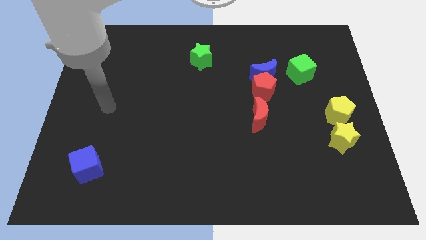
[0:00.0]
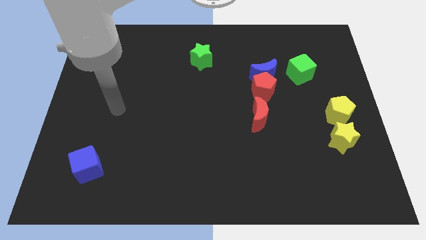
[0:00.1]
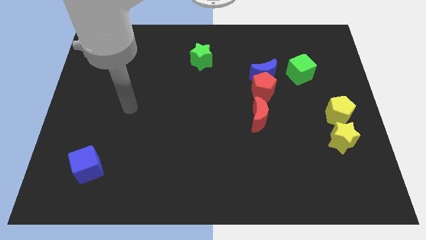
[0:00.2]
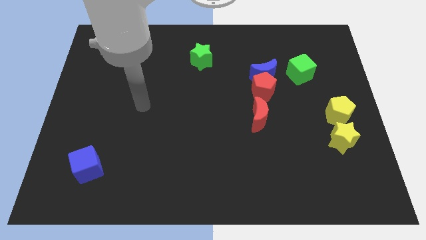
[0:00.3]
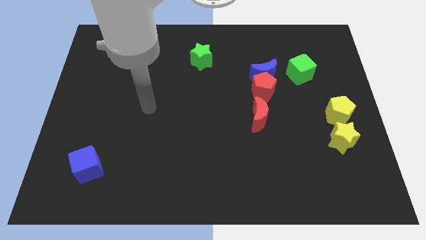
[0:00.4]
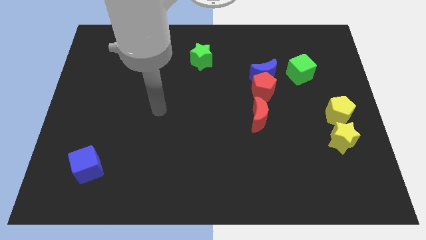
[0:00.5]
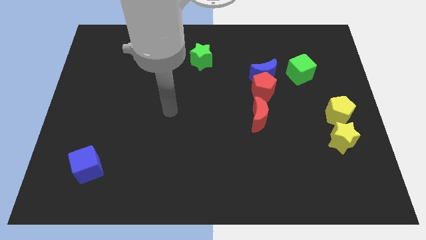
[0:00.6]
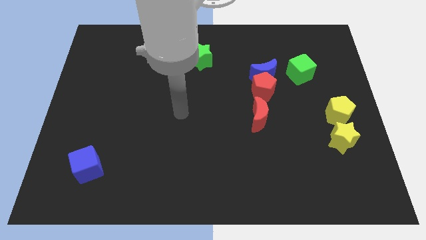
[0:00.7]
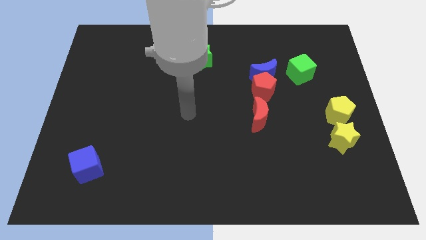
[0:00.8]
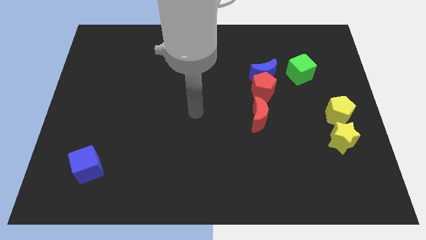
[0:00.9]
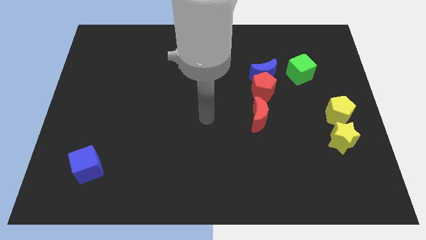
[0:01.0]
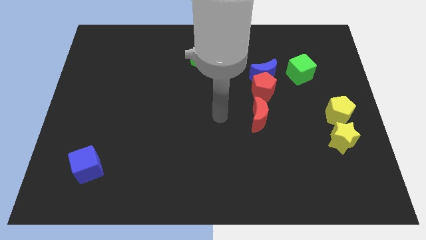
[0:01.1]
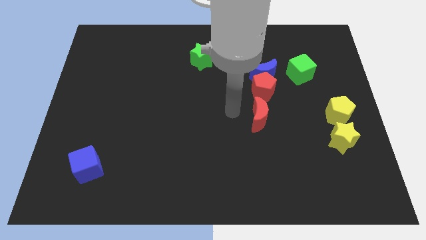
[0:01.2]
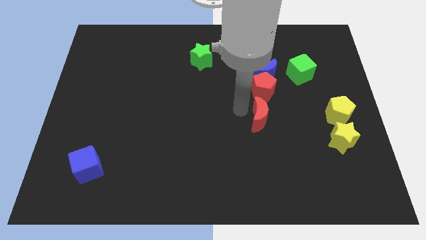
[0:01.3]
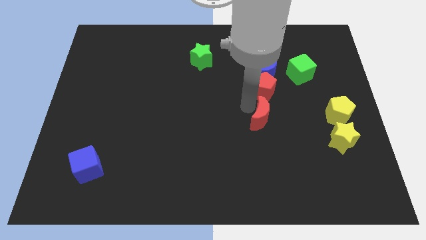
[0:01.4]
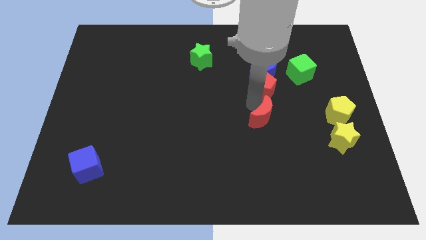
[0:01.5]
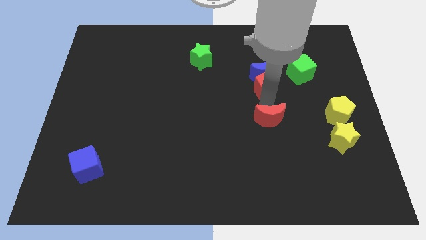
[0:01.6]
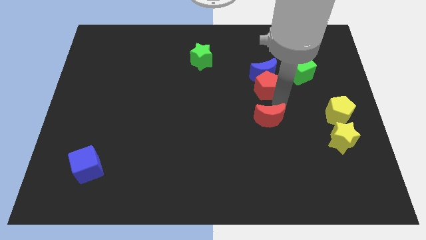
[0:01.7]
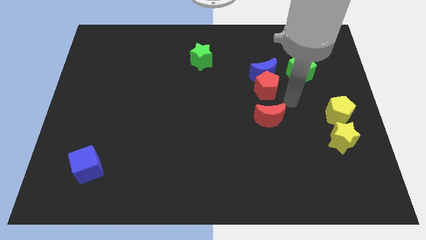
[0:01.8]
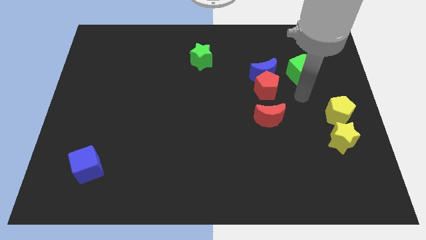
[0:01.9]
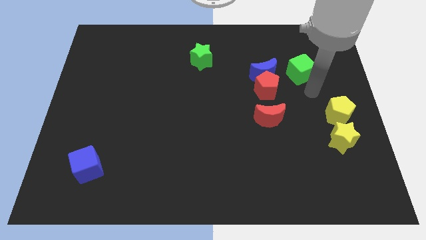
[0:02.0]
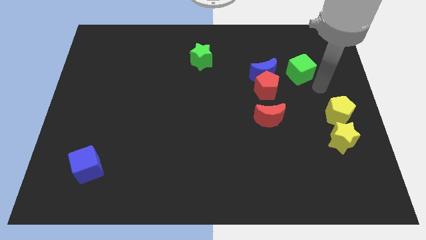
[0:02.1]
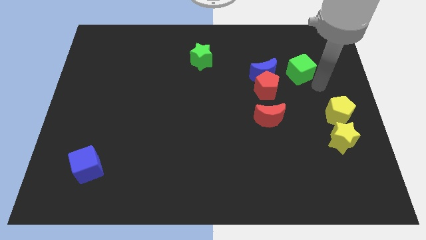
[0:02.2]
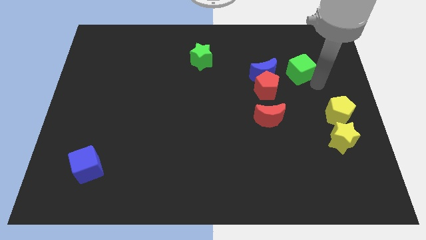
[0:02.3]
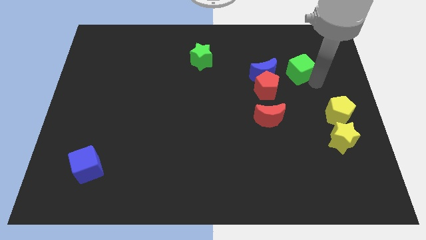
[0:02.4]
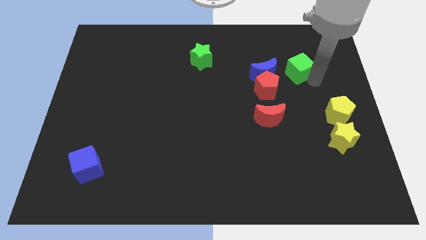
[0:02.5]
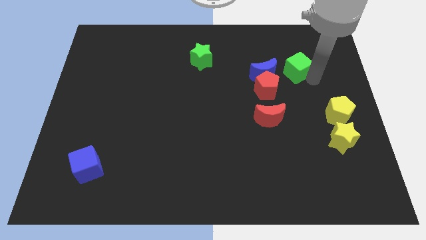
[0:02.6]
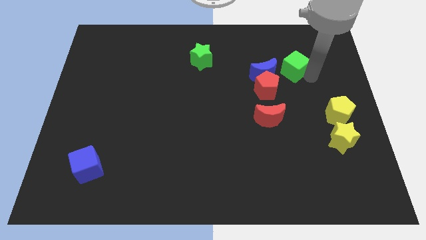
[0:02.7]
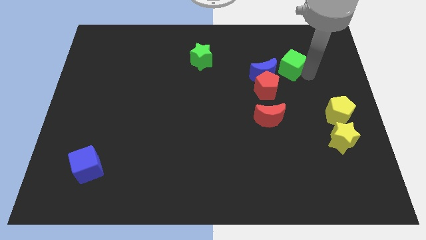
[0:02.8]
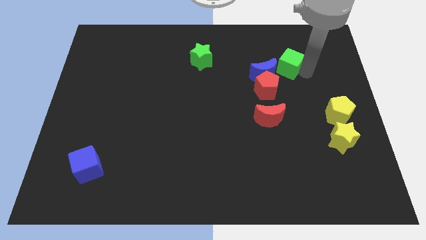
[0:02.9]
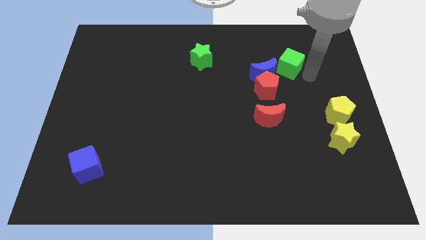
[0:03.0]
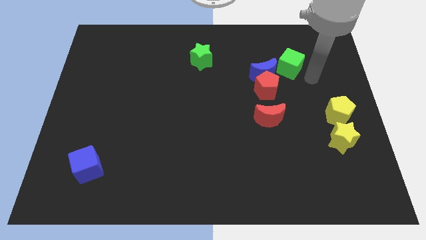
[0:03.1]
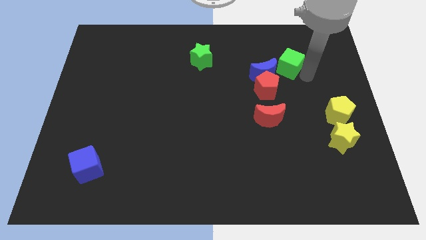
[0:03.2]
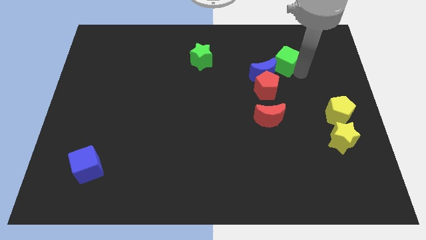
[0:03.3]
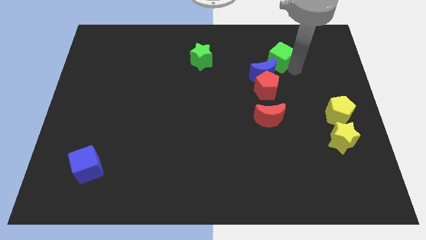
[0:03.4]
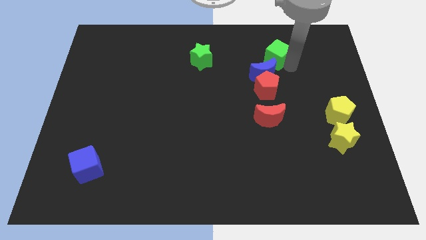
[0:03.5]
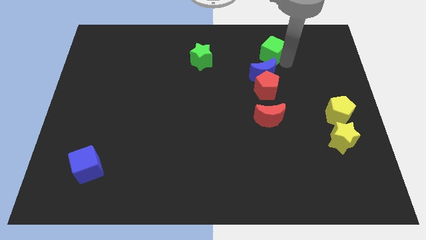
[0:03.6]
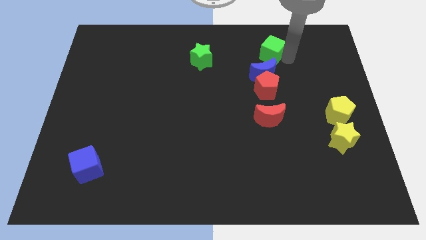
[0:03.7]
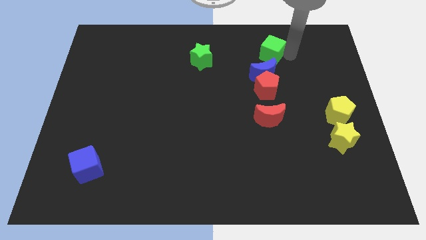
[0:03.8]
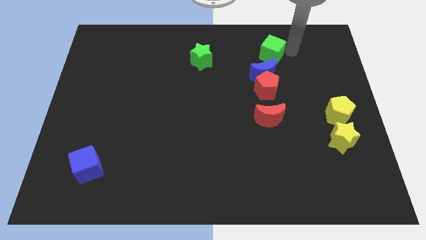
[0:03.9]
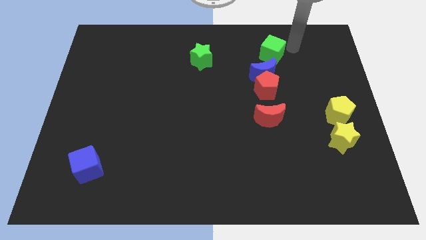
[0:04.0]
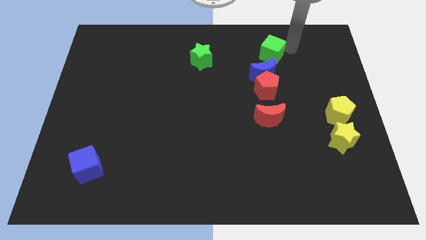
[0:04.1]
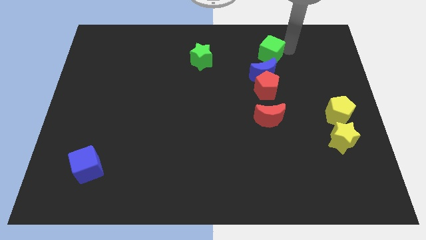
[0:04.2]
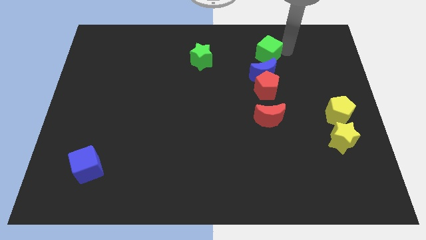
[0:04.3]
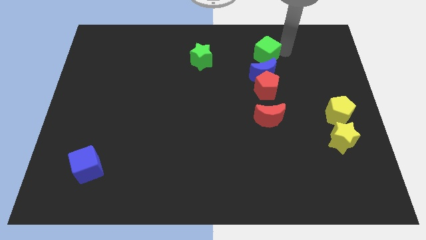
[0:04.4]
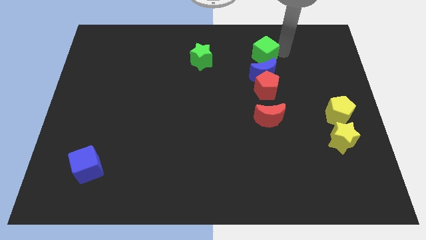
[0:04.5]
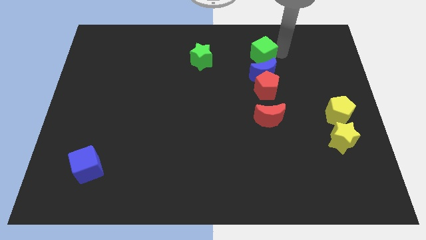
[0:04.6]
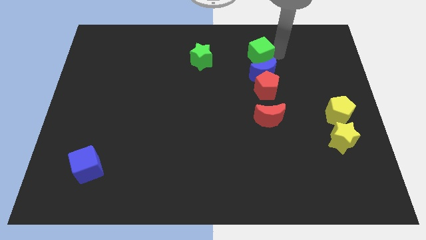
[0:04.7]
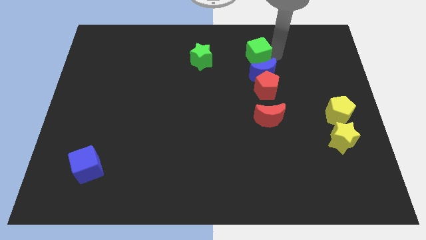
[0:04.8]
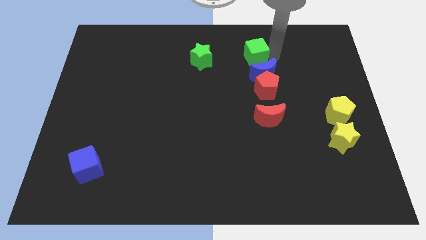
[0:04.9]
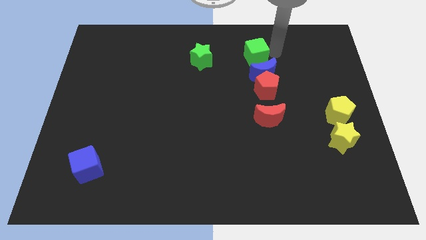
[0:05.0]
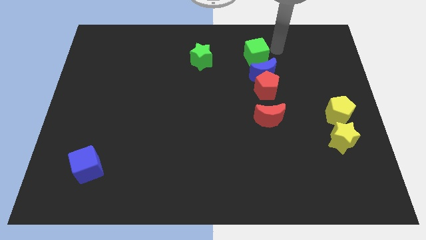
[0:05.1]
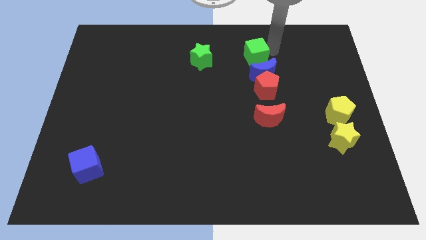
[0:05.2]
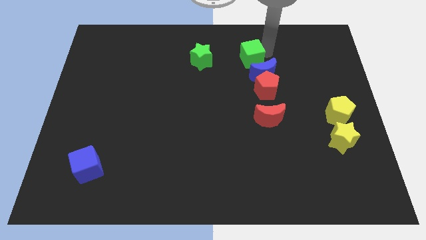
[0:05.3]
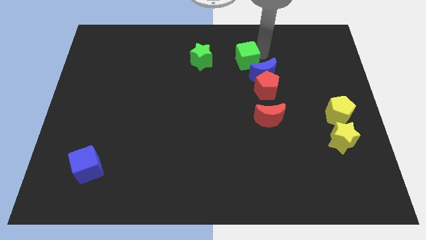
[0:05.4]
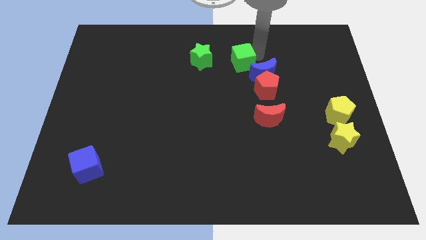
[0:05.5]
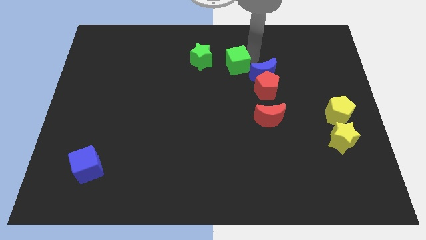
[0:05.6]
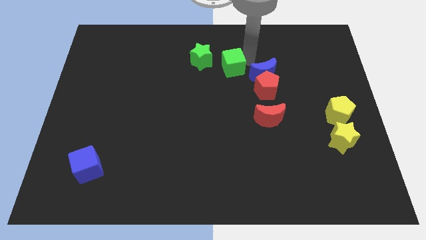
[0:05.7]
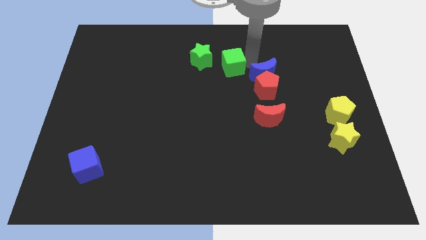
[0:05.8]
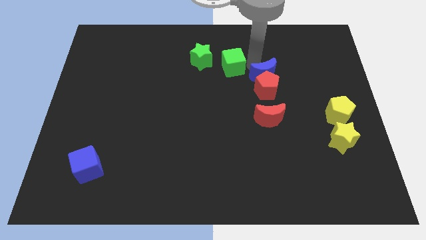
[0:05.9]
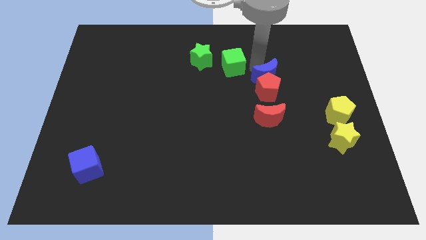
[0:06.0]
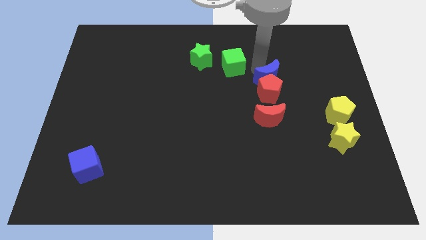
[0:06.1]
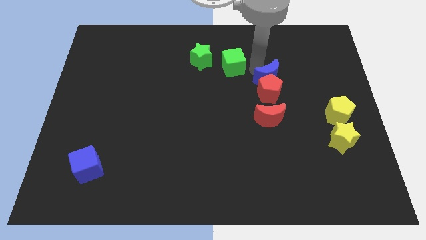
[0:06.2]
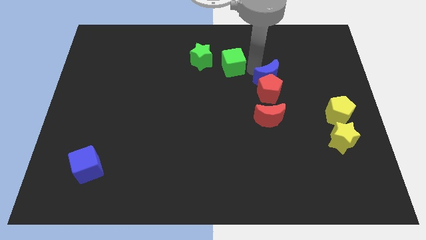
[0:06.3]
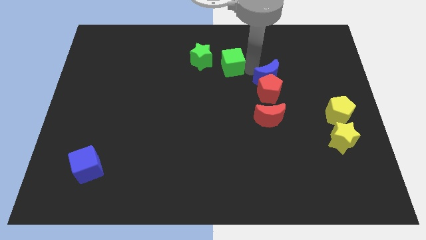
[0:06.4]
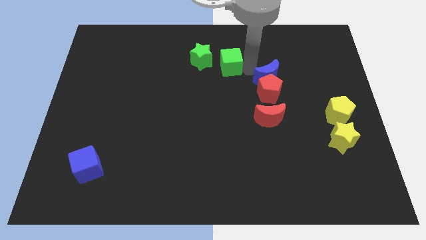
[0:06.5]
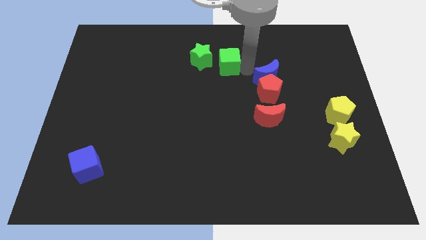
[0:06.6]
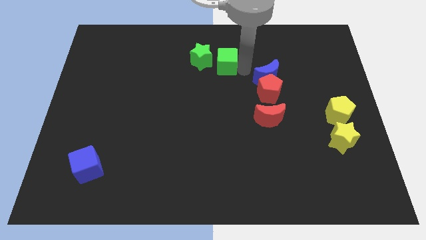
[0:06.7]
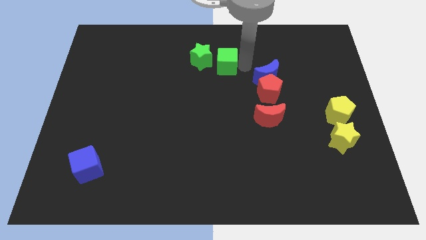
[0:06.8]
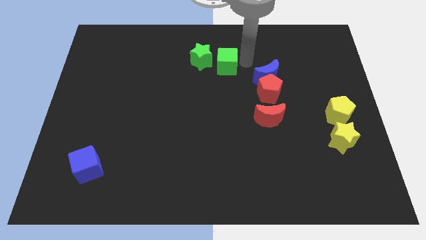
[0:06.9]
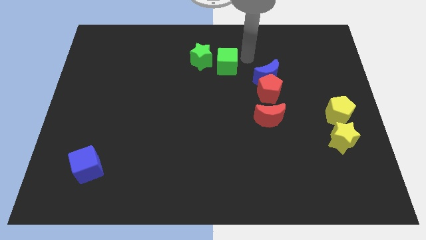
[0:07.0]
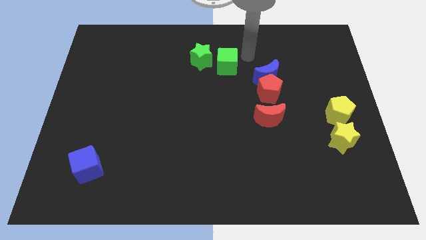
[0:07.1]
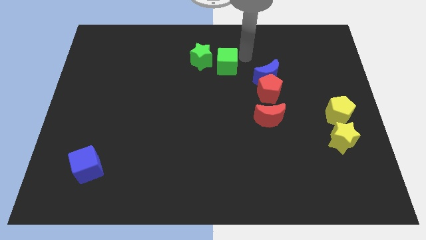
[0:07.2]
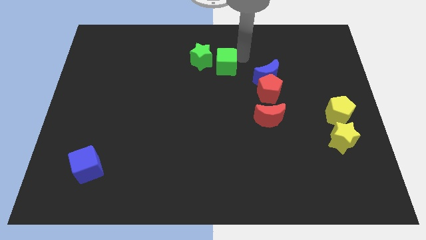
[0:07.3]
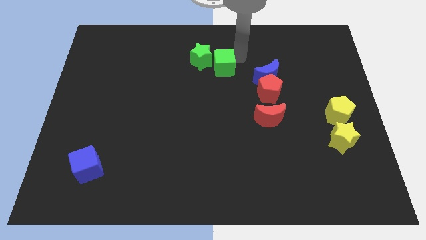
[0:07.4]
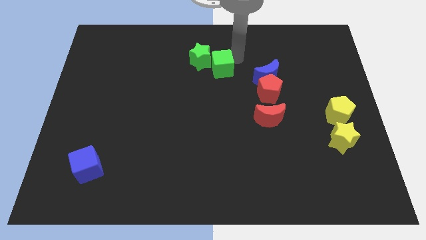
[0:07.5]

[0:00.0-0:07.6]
slide the green cube left

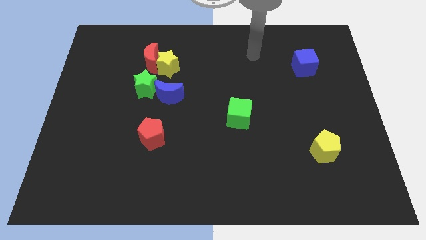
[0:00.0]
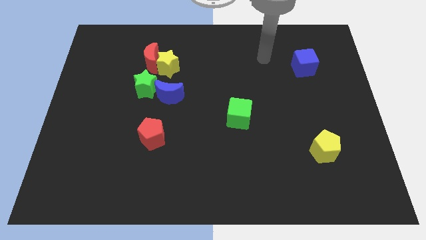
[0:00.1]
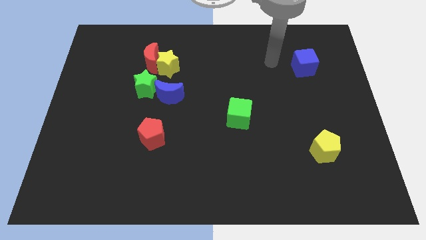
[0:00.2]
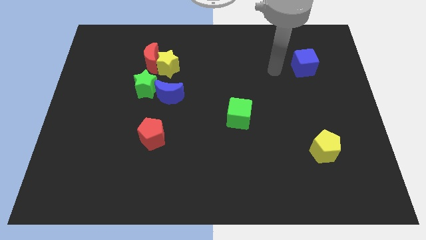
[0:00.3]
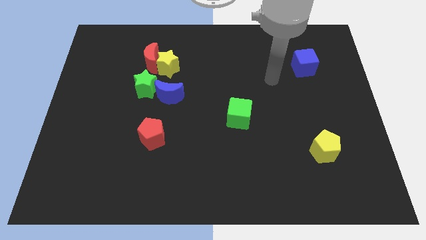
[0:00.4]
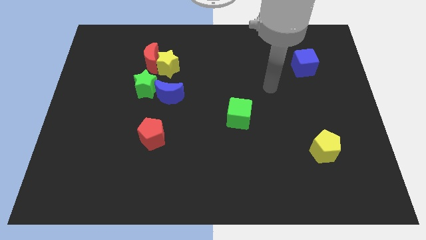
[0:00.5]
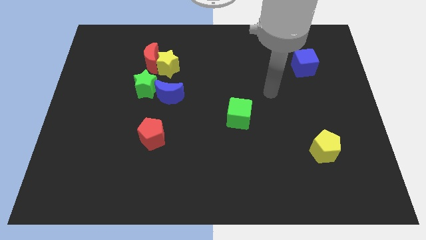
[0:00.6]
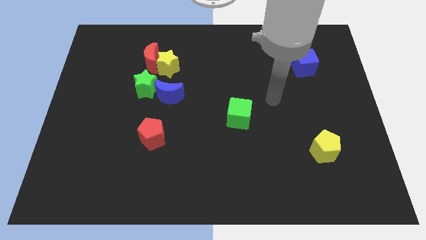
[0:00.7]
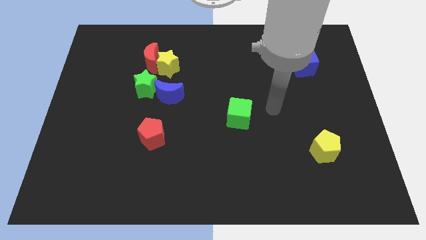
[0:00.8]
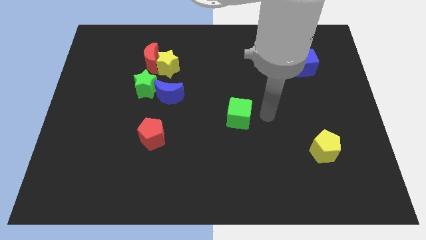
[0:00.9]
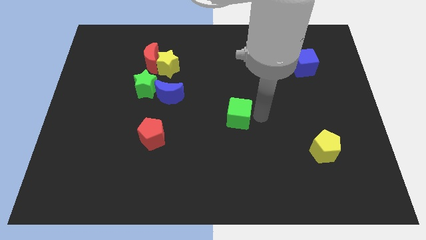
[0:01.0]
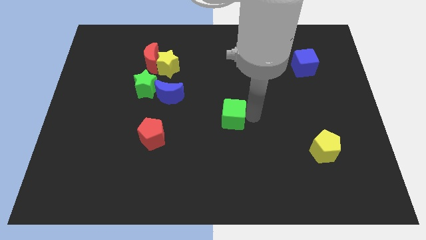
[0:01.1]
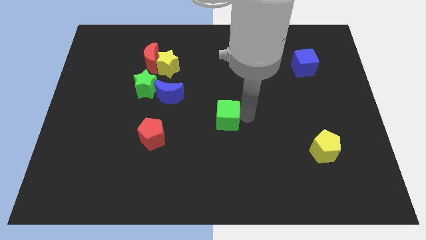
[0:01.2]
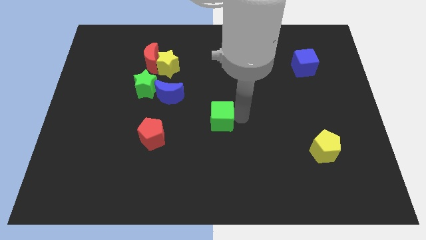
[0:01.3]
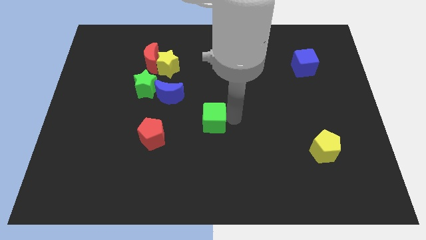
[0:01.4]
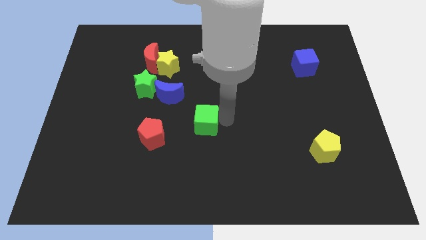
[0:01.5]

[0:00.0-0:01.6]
move the green cube a bit left
